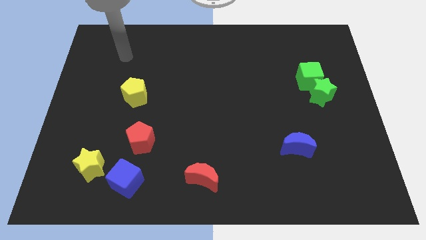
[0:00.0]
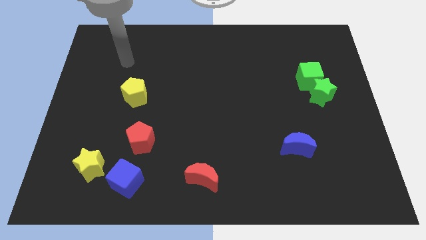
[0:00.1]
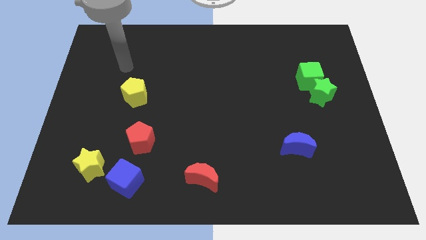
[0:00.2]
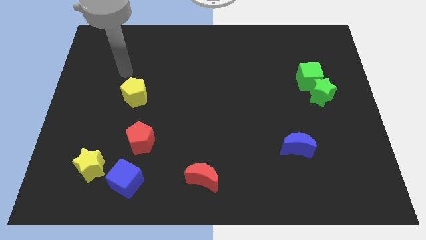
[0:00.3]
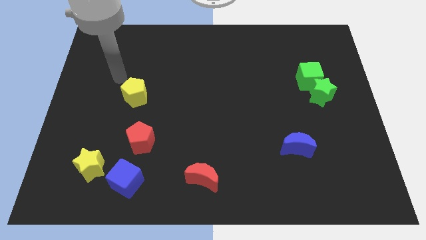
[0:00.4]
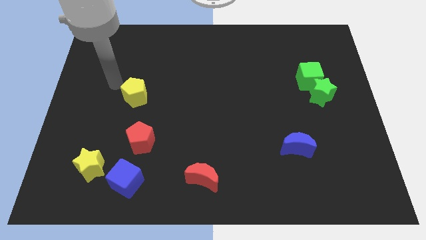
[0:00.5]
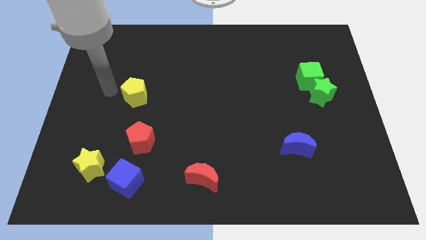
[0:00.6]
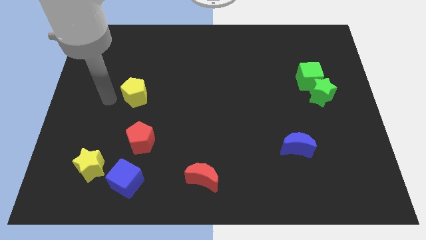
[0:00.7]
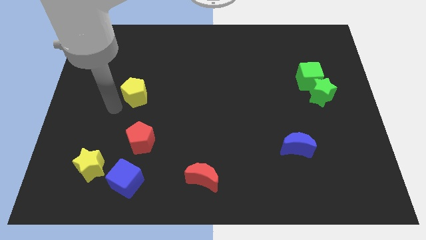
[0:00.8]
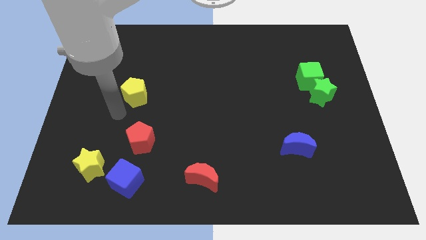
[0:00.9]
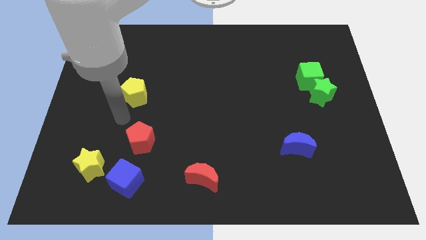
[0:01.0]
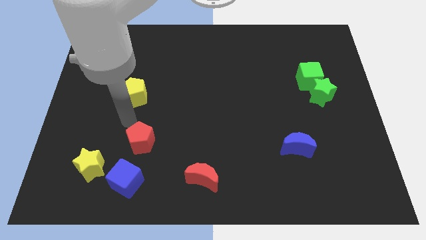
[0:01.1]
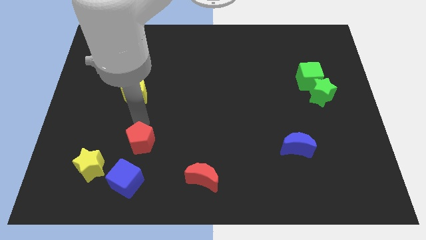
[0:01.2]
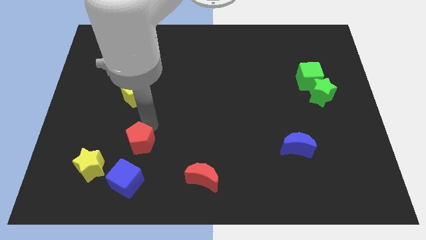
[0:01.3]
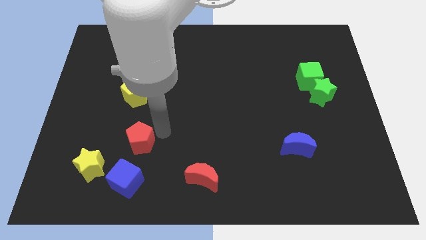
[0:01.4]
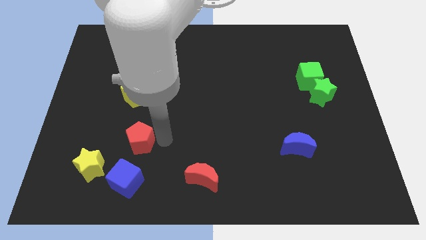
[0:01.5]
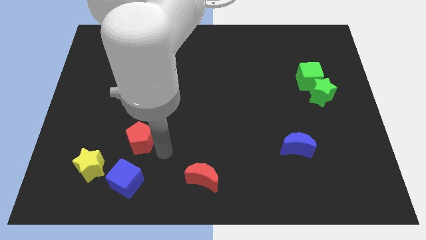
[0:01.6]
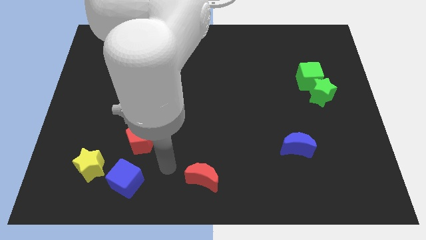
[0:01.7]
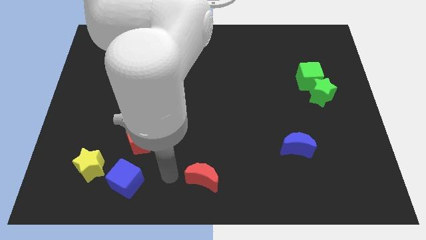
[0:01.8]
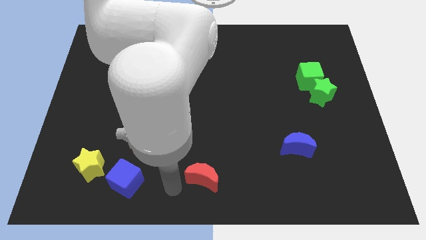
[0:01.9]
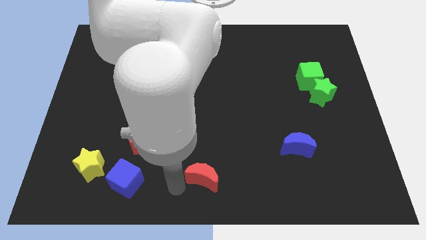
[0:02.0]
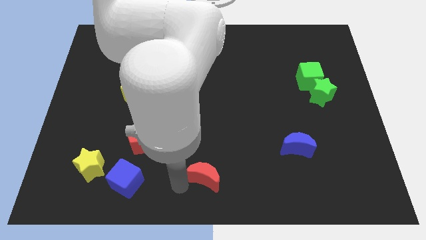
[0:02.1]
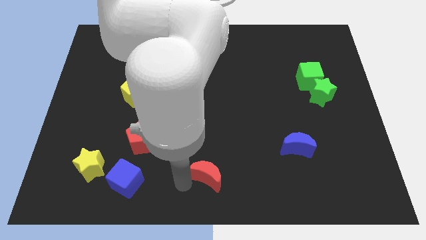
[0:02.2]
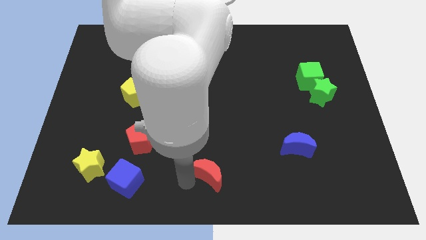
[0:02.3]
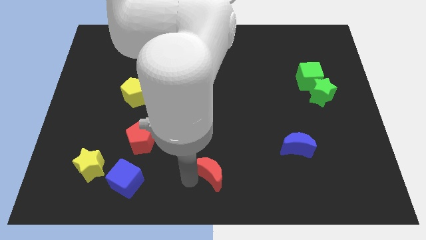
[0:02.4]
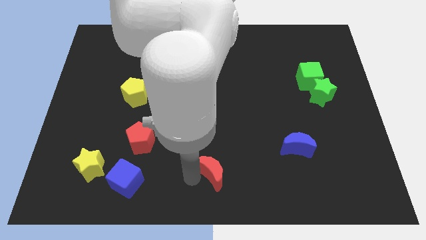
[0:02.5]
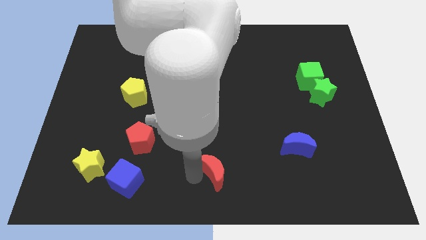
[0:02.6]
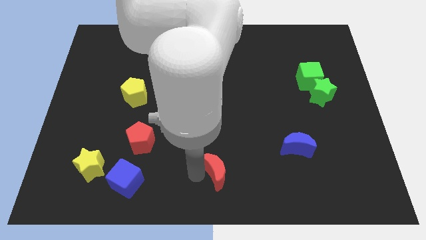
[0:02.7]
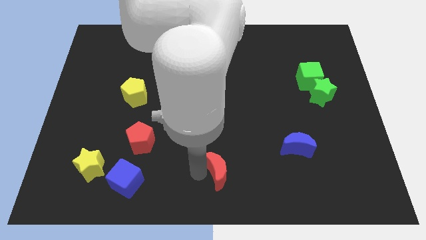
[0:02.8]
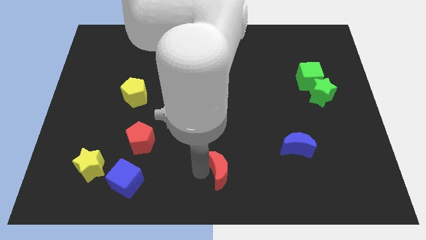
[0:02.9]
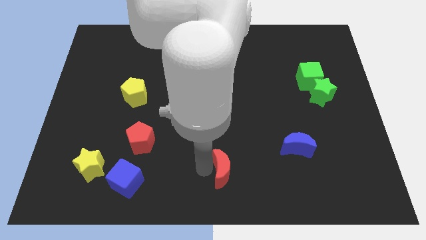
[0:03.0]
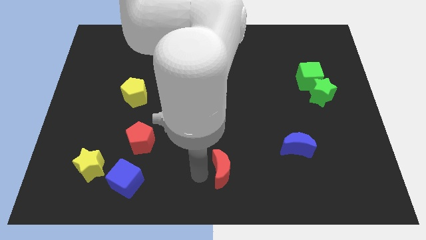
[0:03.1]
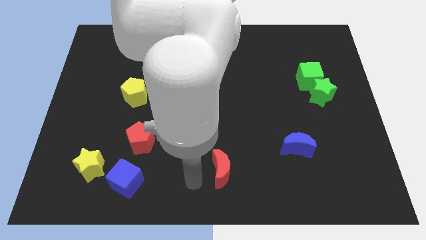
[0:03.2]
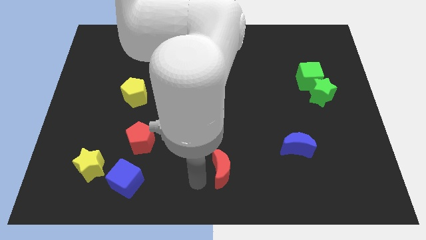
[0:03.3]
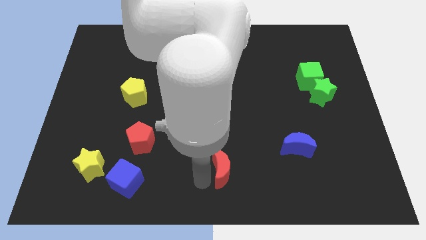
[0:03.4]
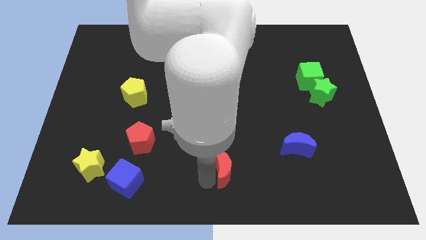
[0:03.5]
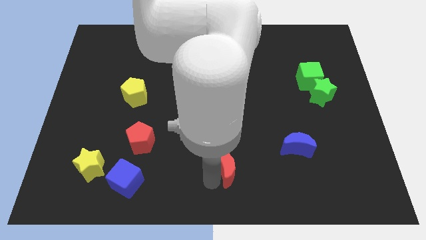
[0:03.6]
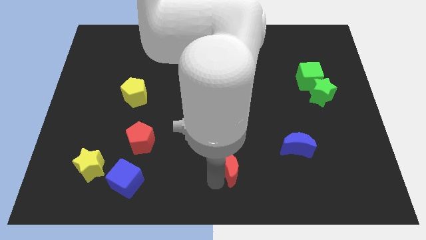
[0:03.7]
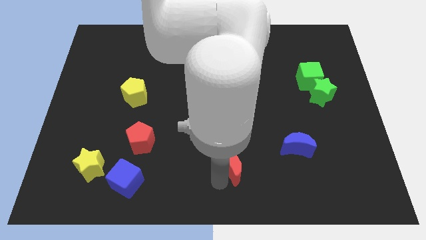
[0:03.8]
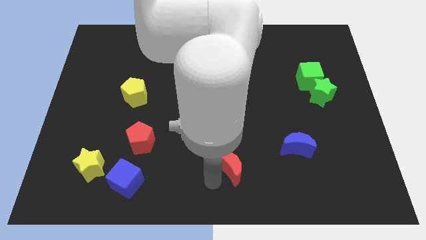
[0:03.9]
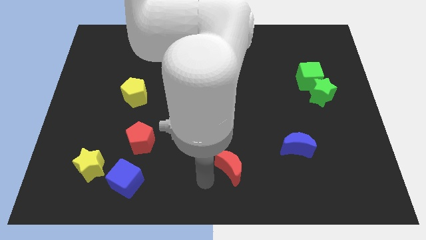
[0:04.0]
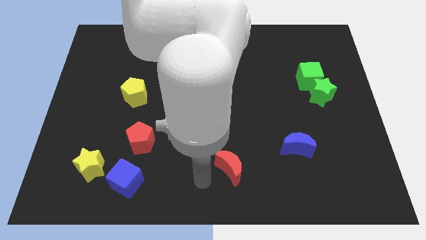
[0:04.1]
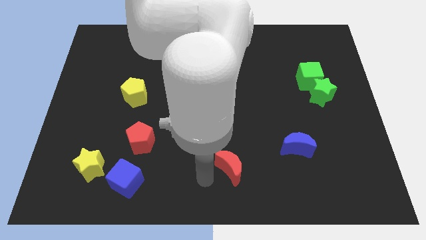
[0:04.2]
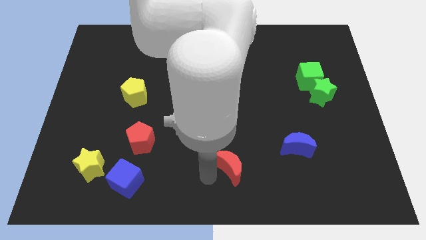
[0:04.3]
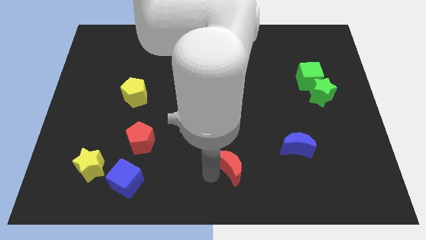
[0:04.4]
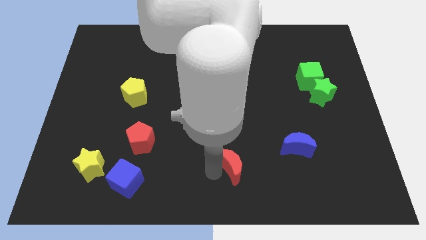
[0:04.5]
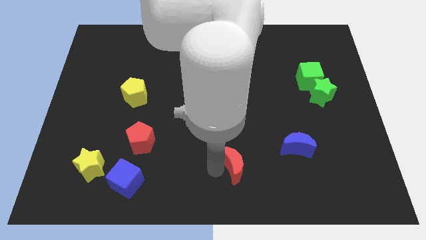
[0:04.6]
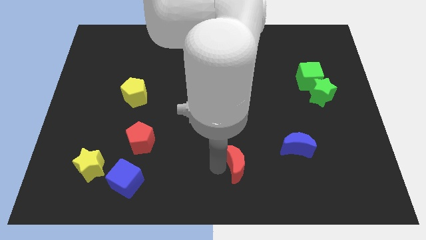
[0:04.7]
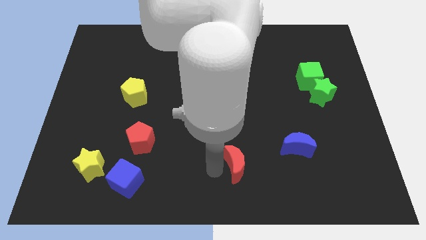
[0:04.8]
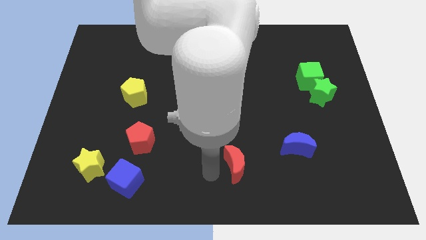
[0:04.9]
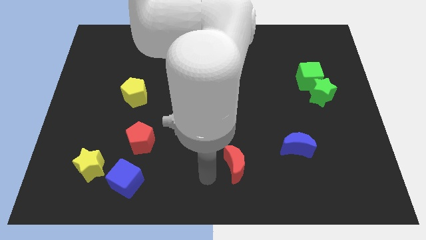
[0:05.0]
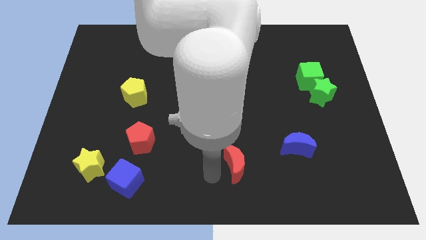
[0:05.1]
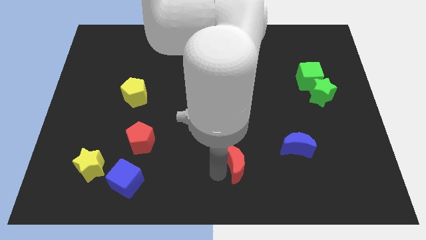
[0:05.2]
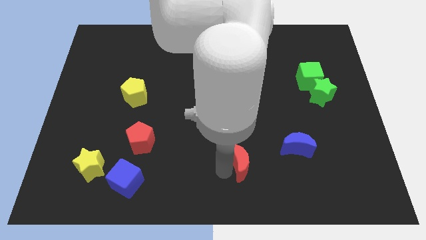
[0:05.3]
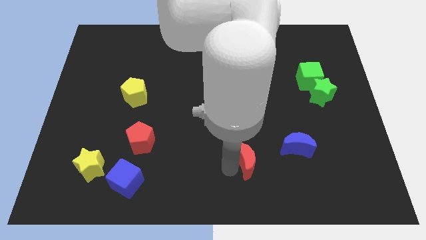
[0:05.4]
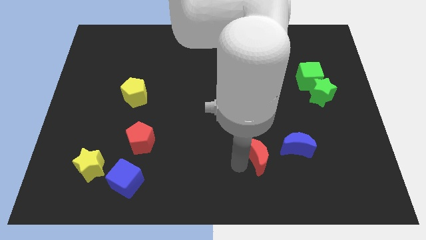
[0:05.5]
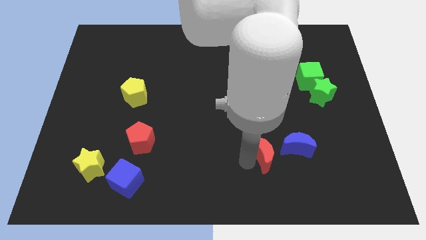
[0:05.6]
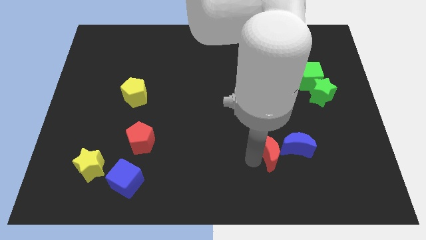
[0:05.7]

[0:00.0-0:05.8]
push the red moon towards the blue moon

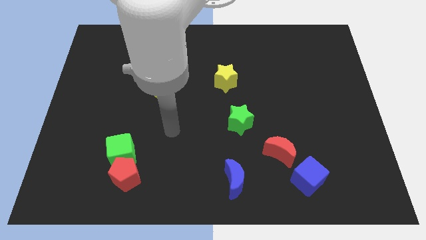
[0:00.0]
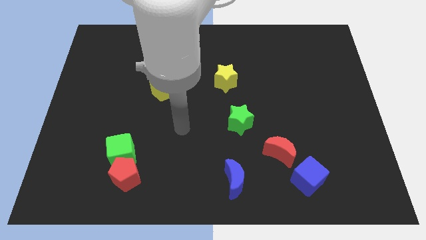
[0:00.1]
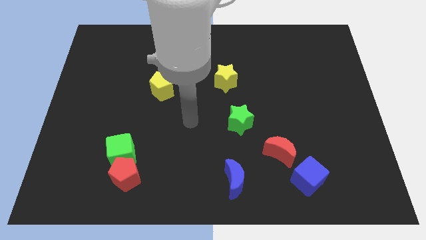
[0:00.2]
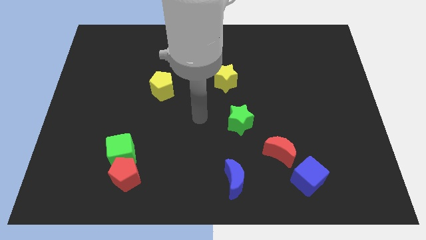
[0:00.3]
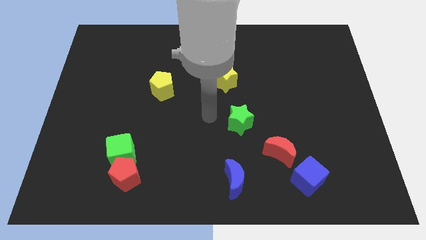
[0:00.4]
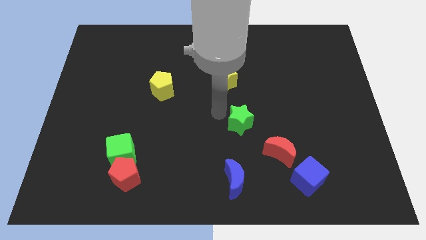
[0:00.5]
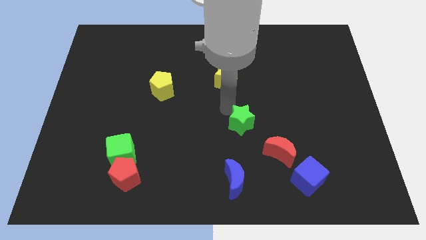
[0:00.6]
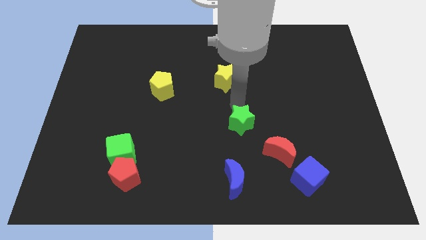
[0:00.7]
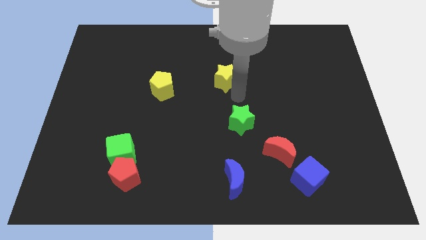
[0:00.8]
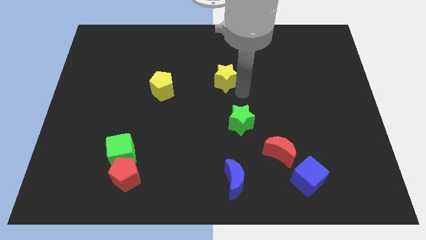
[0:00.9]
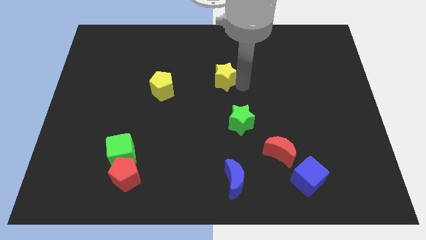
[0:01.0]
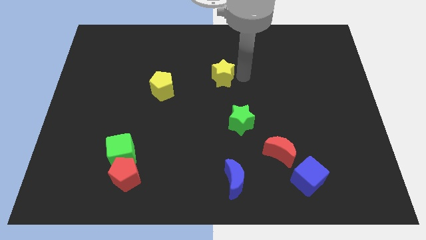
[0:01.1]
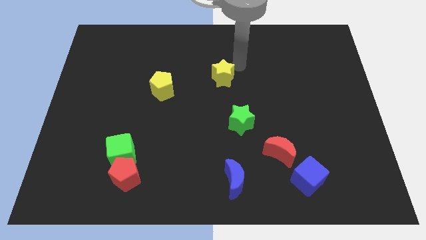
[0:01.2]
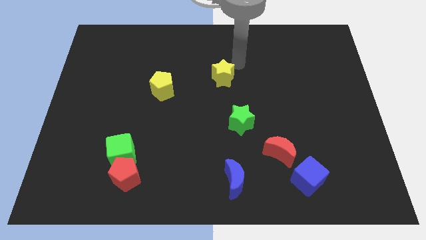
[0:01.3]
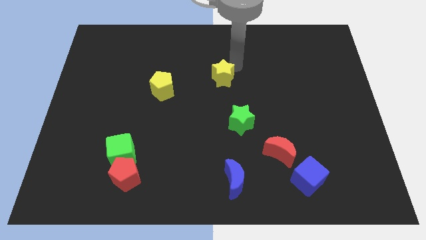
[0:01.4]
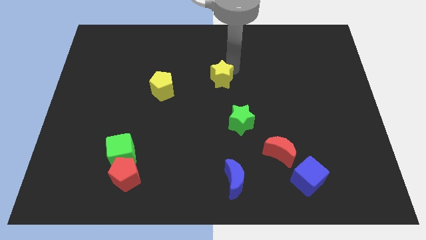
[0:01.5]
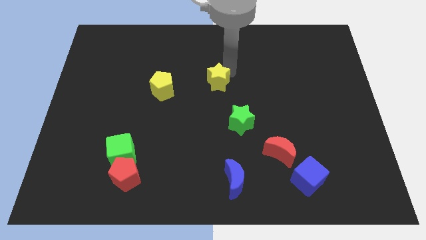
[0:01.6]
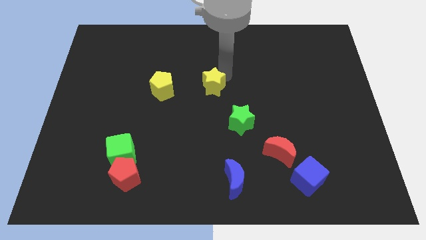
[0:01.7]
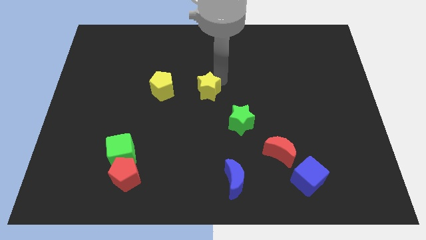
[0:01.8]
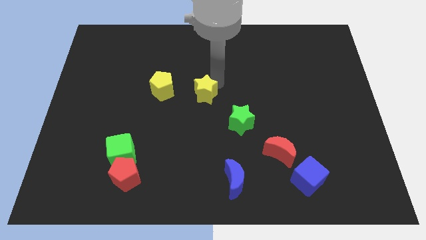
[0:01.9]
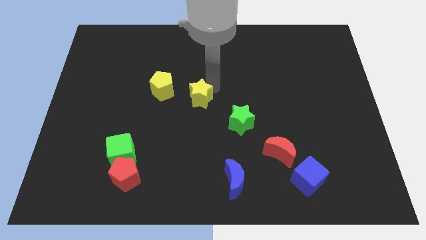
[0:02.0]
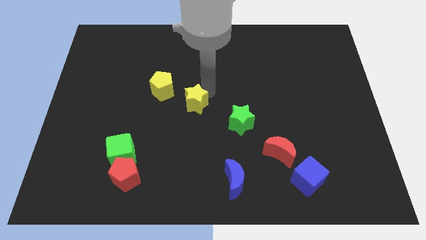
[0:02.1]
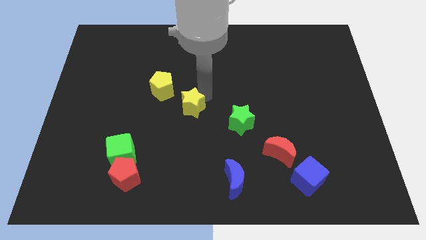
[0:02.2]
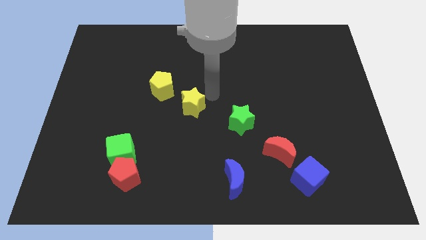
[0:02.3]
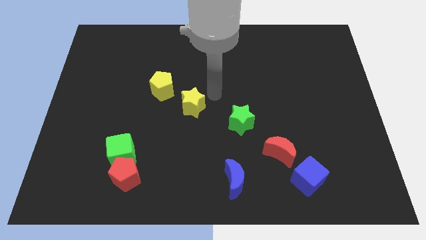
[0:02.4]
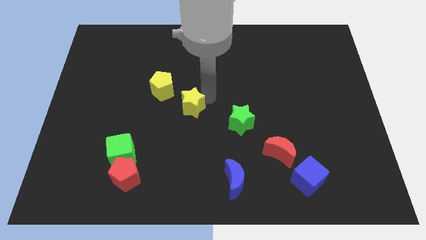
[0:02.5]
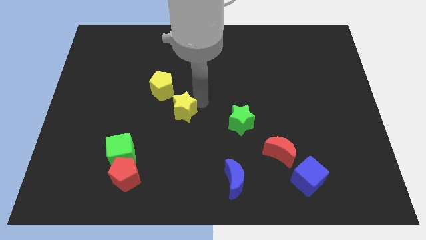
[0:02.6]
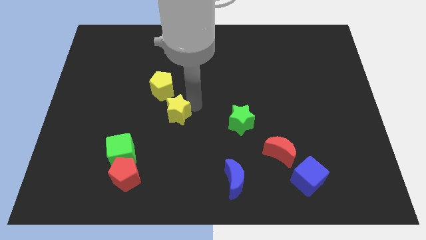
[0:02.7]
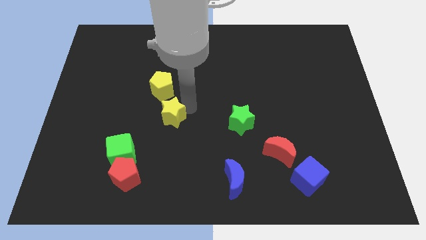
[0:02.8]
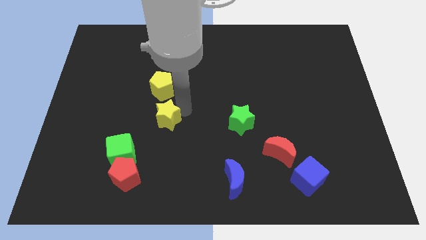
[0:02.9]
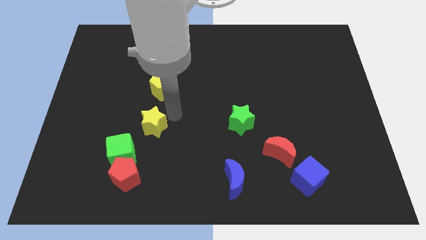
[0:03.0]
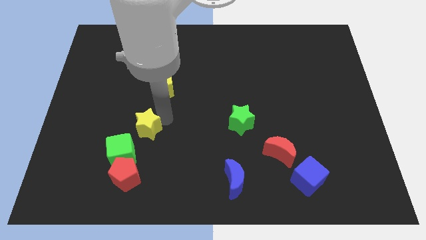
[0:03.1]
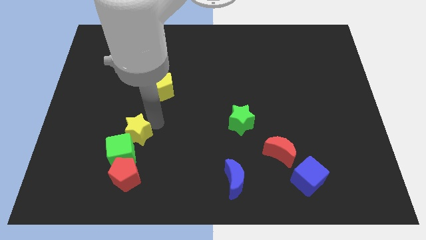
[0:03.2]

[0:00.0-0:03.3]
slide the yellow star next to the green cube
